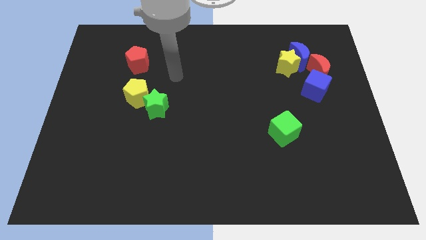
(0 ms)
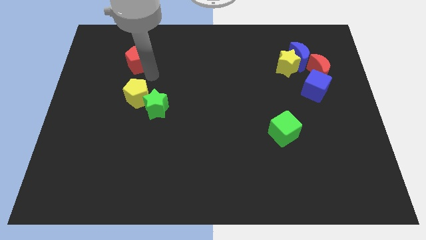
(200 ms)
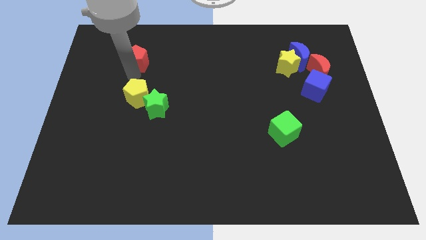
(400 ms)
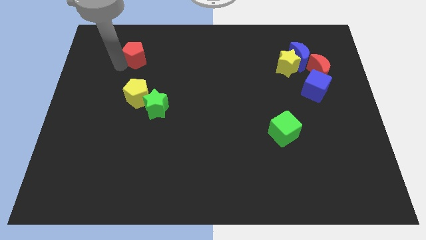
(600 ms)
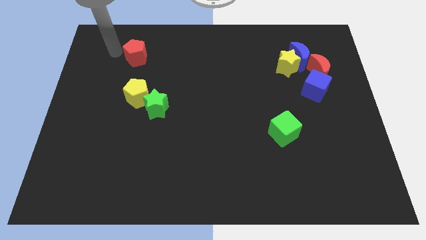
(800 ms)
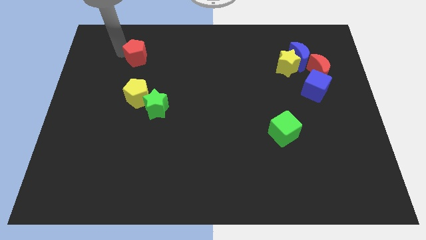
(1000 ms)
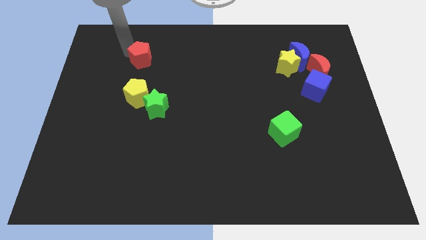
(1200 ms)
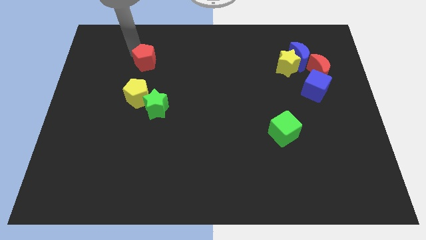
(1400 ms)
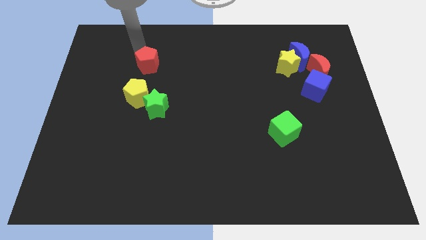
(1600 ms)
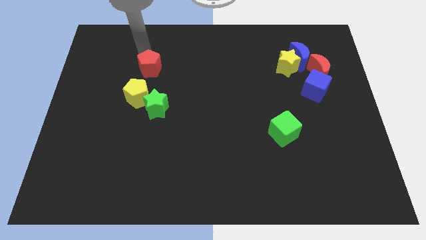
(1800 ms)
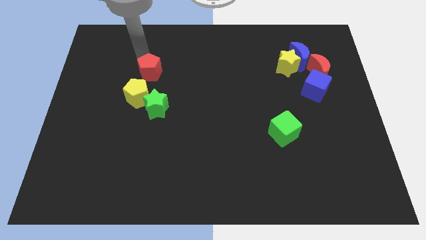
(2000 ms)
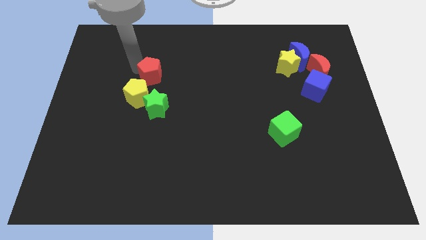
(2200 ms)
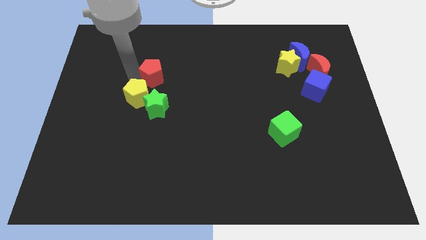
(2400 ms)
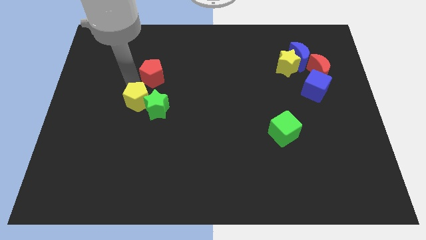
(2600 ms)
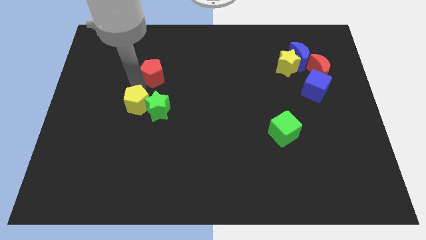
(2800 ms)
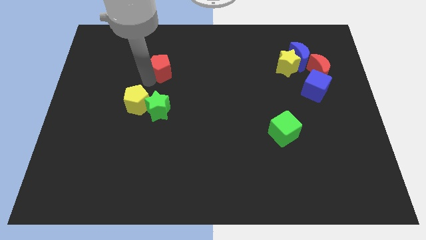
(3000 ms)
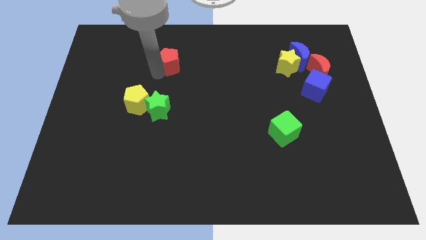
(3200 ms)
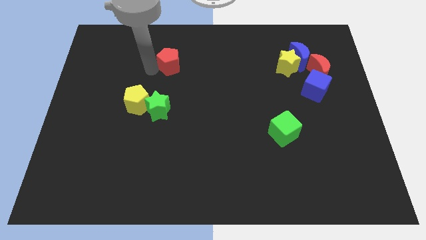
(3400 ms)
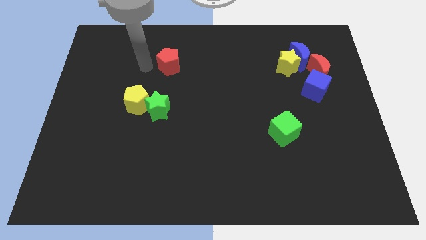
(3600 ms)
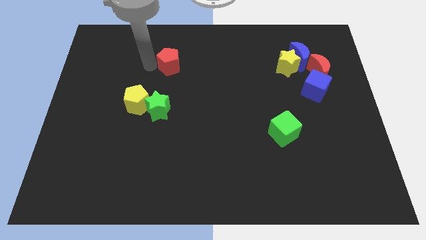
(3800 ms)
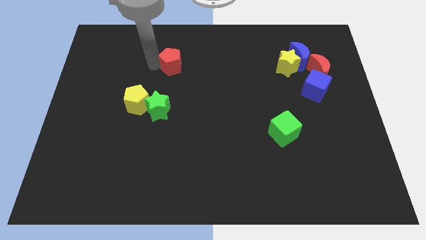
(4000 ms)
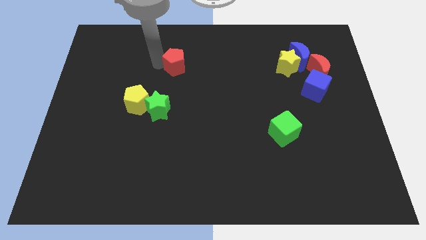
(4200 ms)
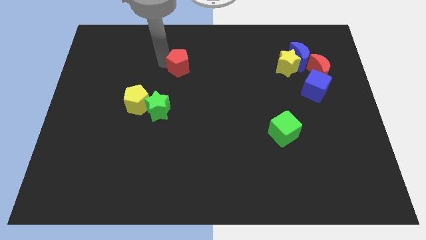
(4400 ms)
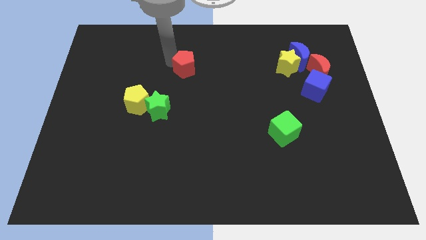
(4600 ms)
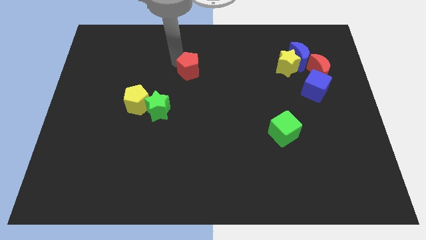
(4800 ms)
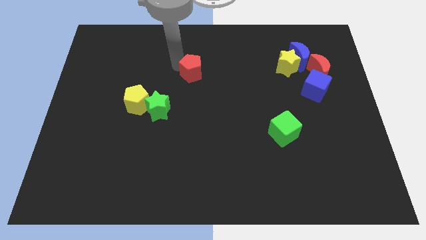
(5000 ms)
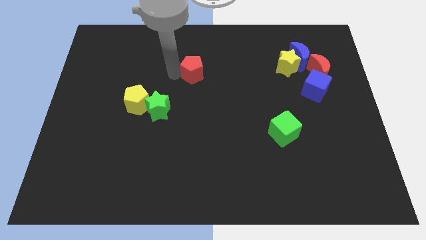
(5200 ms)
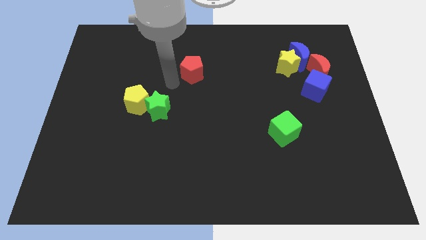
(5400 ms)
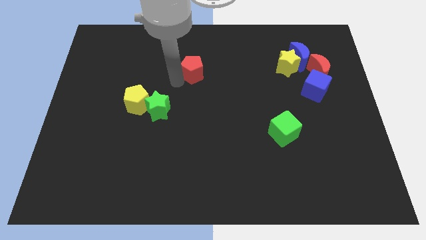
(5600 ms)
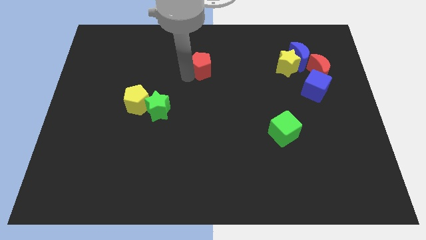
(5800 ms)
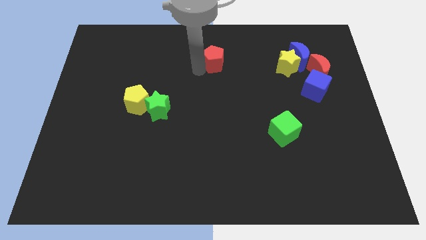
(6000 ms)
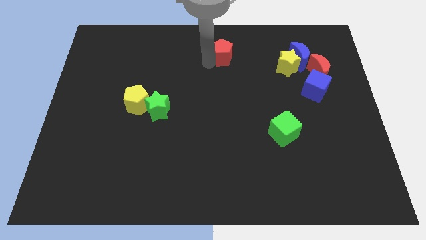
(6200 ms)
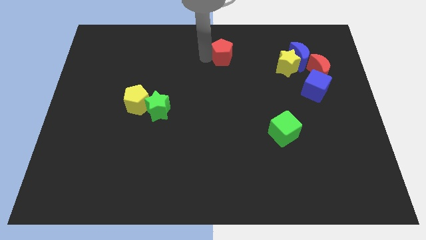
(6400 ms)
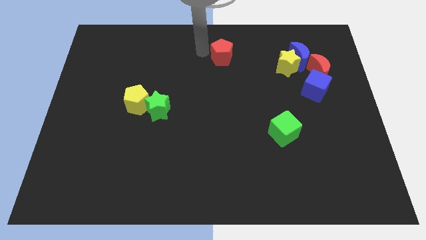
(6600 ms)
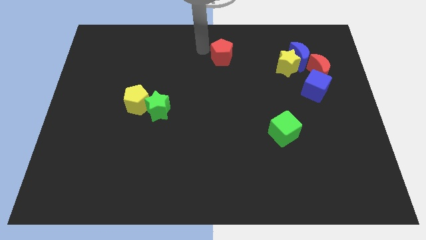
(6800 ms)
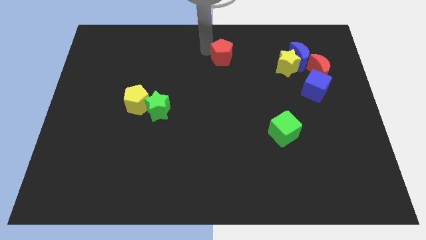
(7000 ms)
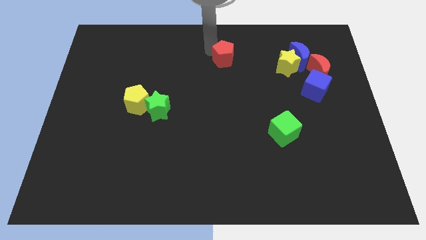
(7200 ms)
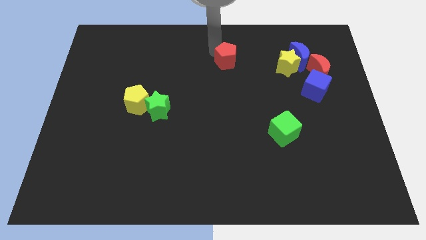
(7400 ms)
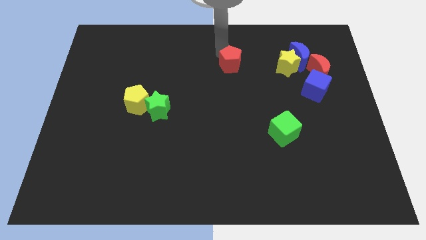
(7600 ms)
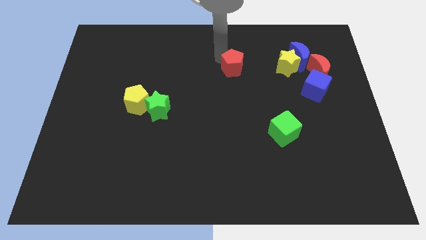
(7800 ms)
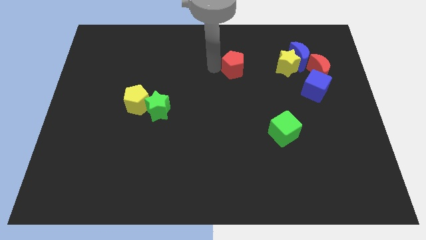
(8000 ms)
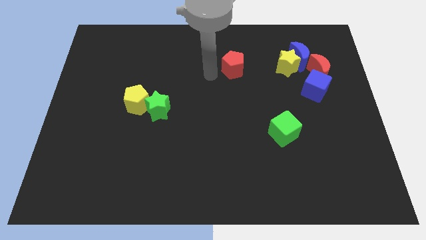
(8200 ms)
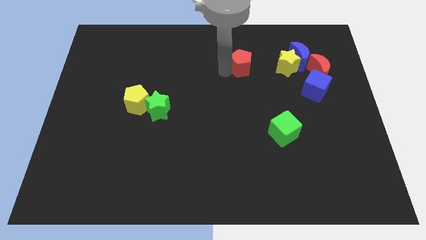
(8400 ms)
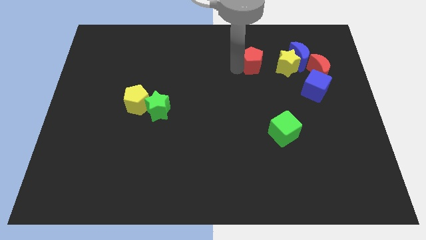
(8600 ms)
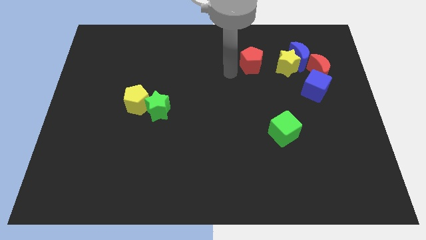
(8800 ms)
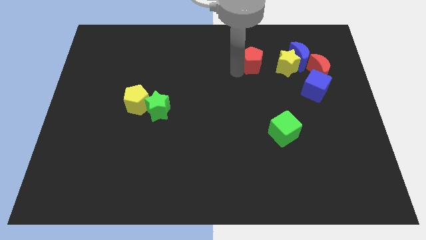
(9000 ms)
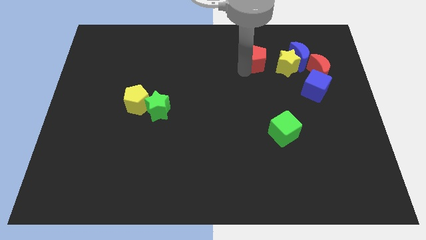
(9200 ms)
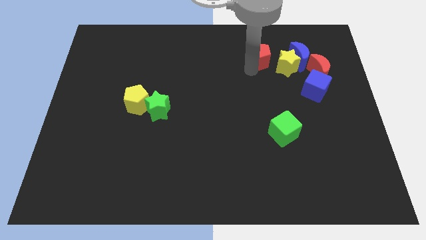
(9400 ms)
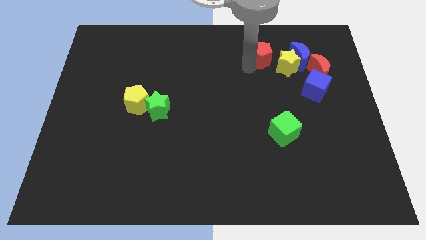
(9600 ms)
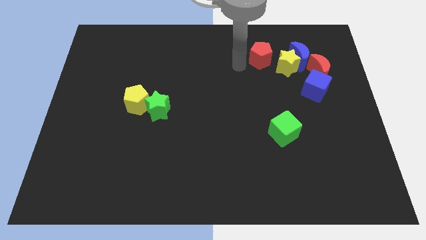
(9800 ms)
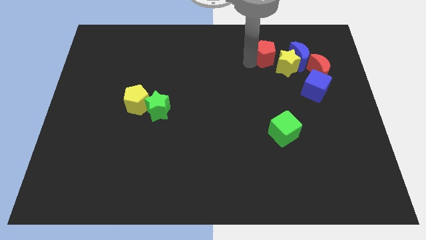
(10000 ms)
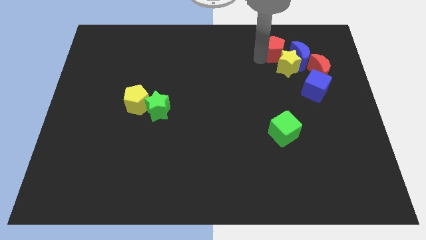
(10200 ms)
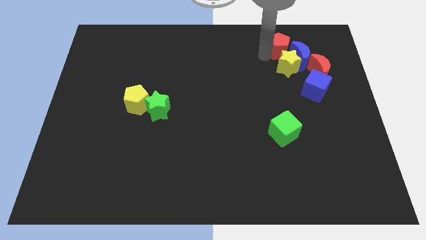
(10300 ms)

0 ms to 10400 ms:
push the red pentagon next to the blue moon

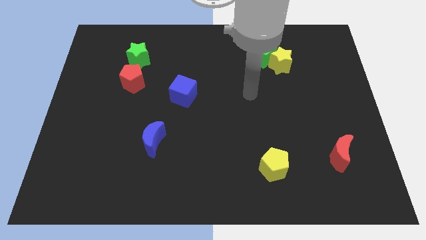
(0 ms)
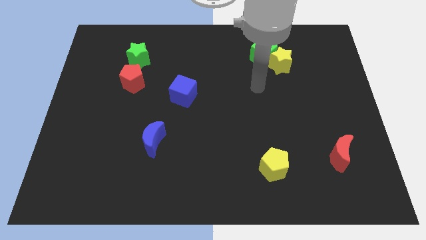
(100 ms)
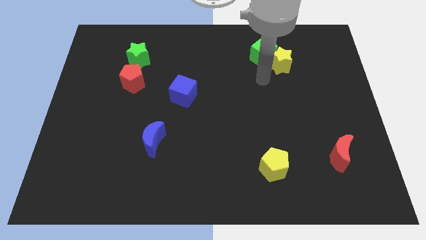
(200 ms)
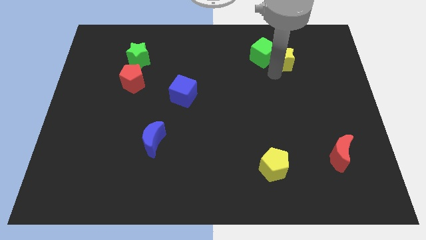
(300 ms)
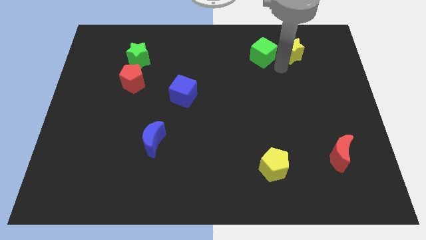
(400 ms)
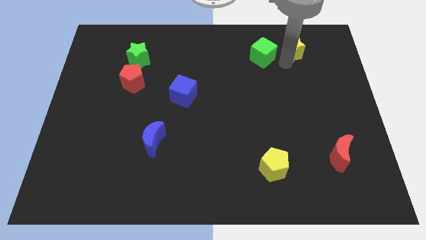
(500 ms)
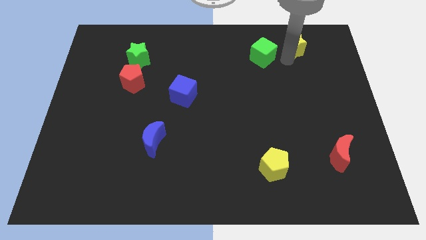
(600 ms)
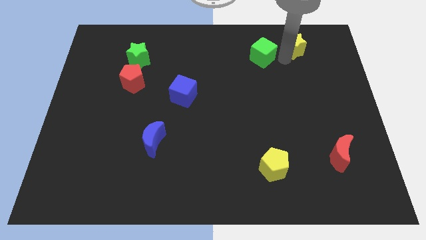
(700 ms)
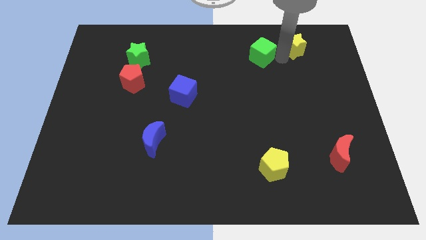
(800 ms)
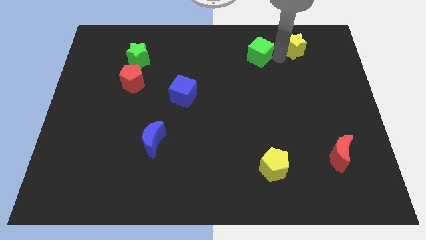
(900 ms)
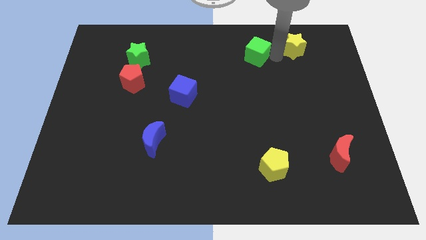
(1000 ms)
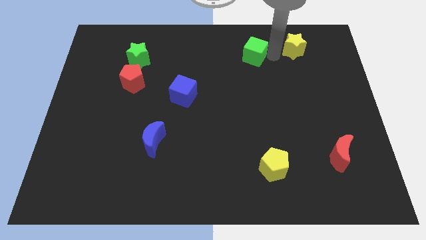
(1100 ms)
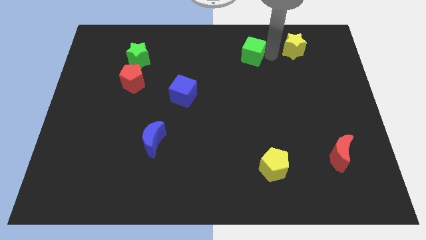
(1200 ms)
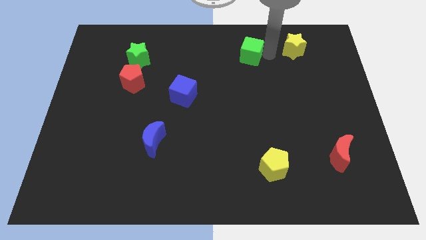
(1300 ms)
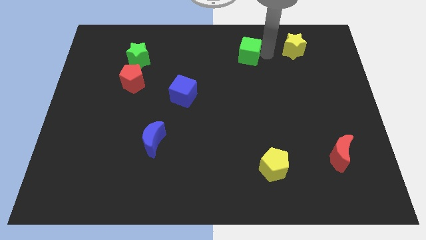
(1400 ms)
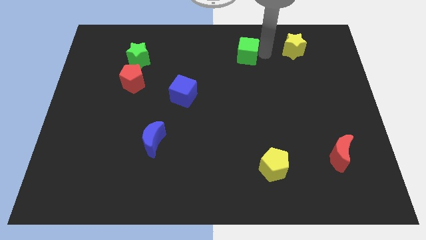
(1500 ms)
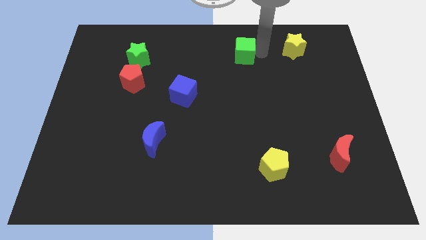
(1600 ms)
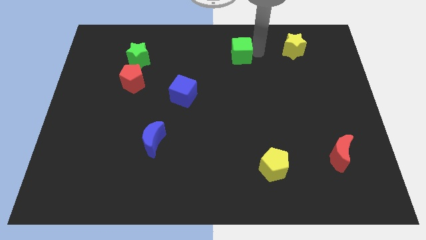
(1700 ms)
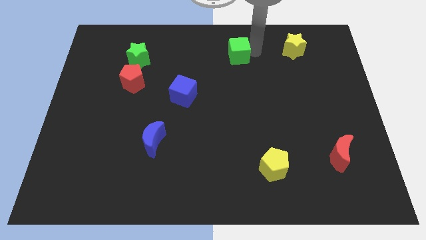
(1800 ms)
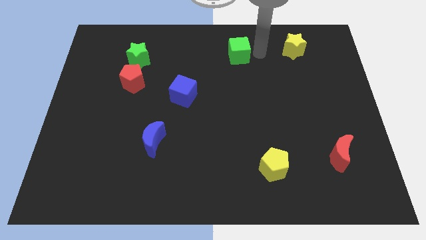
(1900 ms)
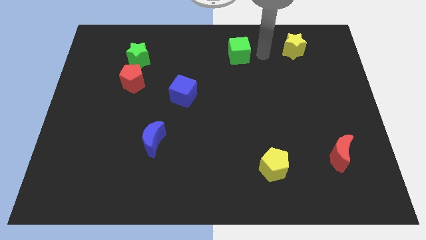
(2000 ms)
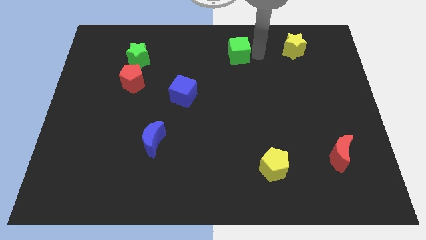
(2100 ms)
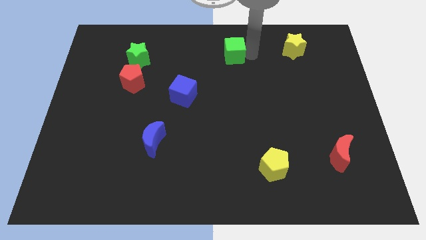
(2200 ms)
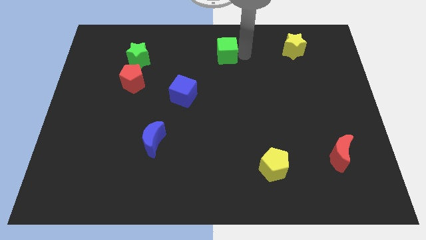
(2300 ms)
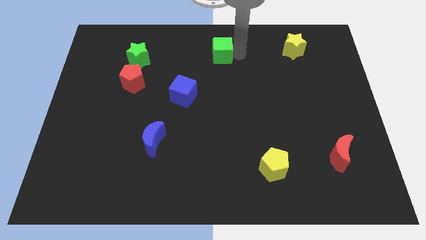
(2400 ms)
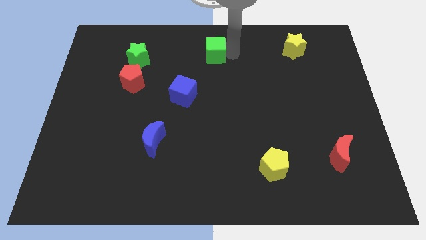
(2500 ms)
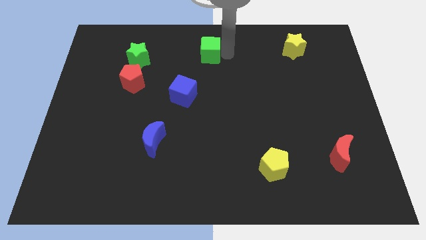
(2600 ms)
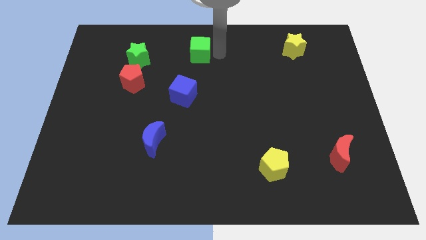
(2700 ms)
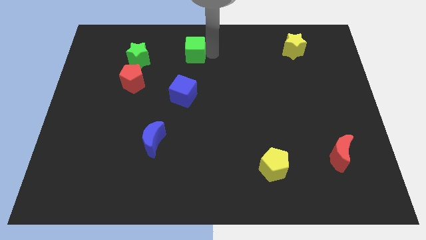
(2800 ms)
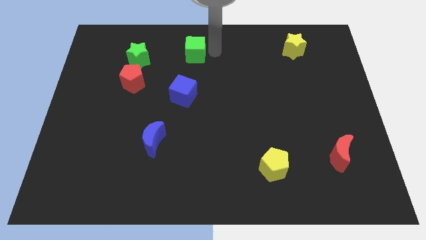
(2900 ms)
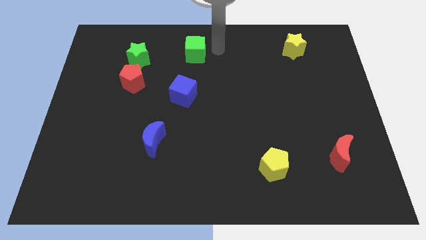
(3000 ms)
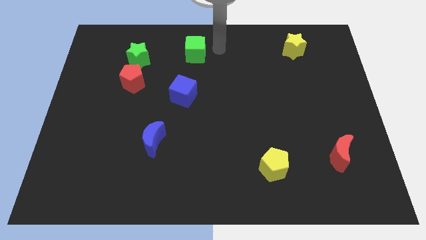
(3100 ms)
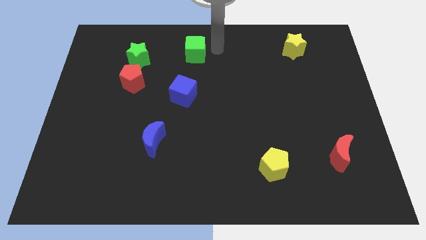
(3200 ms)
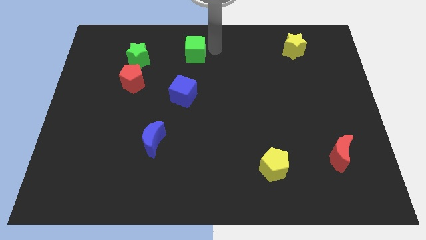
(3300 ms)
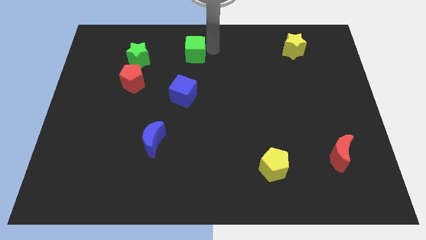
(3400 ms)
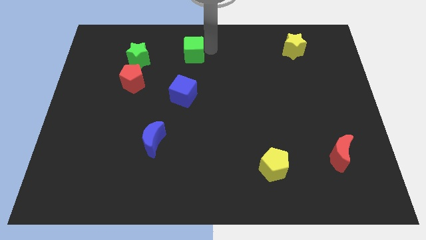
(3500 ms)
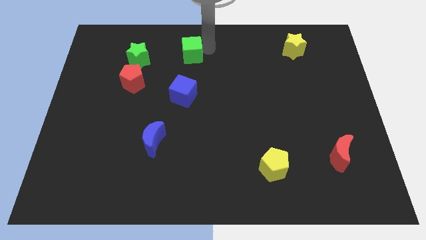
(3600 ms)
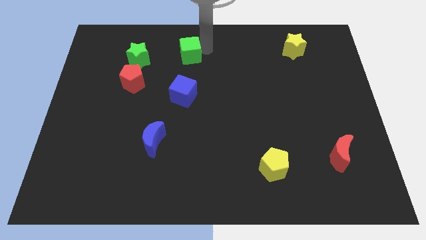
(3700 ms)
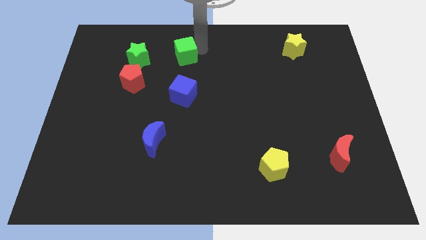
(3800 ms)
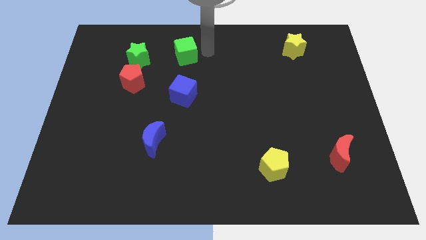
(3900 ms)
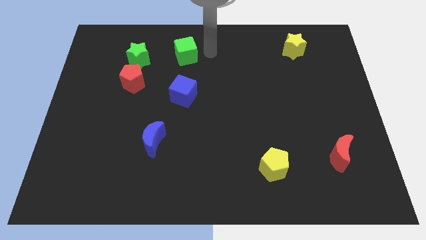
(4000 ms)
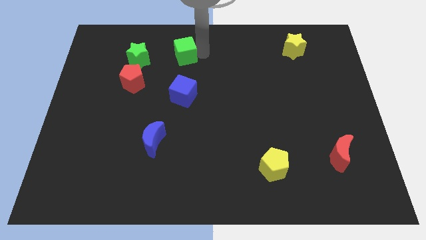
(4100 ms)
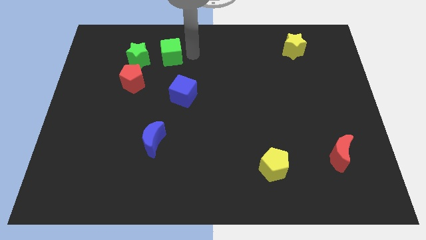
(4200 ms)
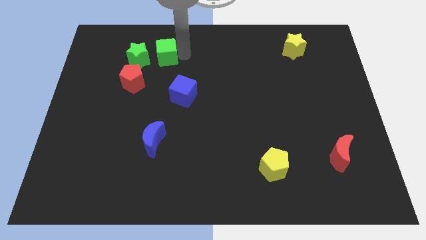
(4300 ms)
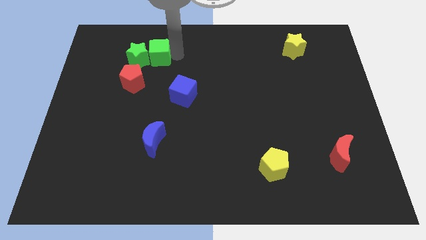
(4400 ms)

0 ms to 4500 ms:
move the green cube close to the green star
